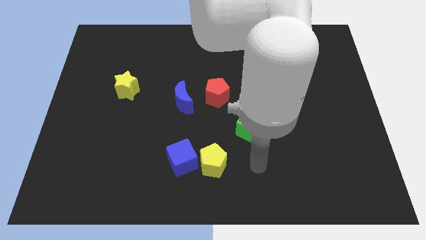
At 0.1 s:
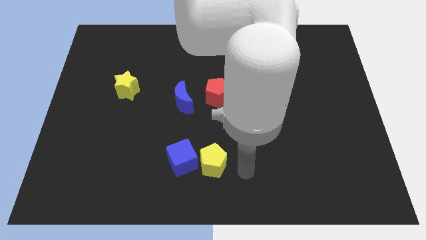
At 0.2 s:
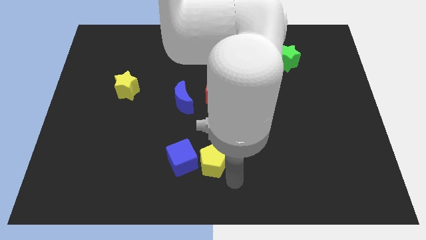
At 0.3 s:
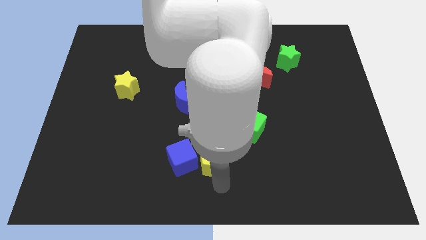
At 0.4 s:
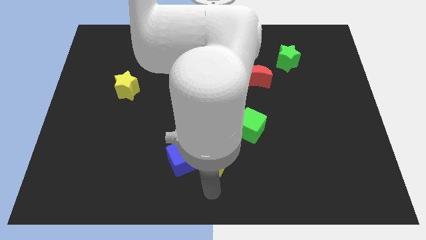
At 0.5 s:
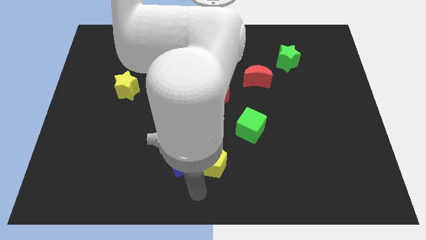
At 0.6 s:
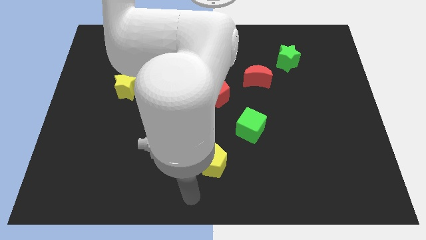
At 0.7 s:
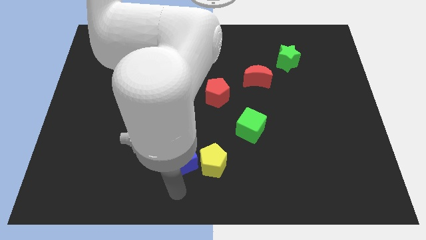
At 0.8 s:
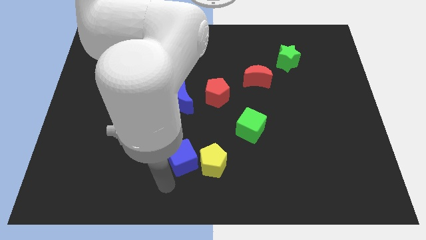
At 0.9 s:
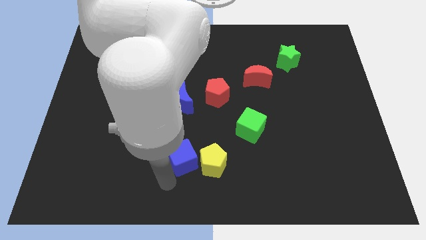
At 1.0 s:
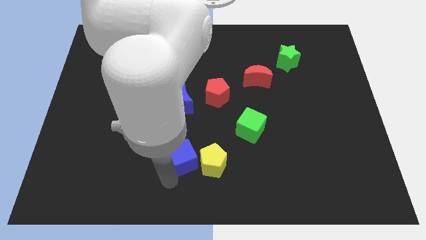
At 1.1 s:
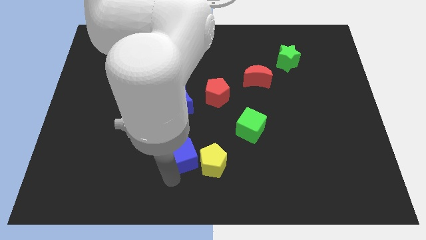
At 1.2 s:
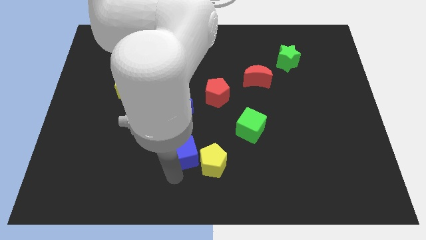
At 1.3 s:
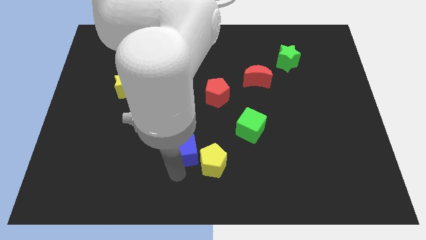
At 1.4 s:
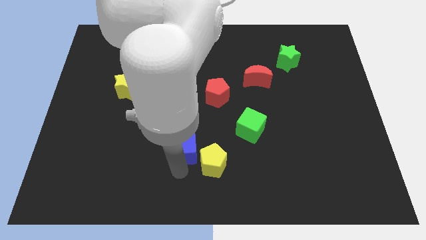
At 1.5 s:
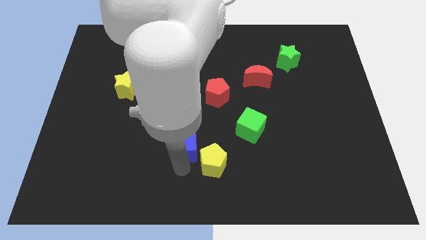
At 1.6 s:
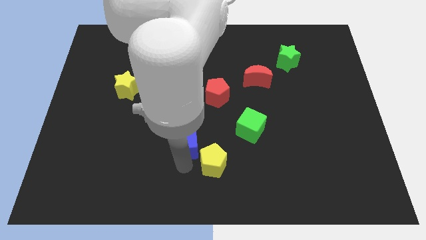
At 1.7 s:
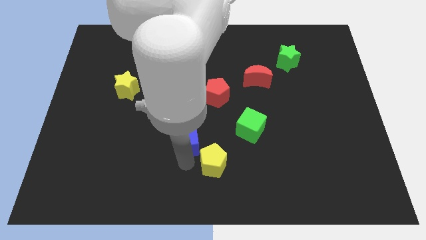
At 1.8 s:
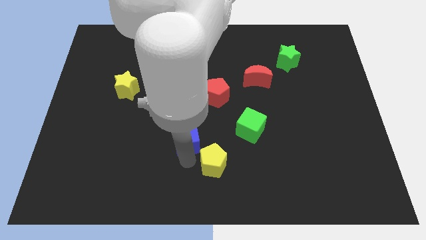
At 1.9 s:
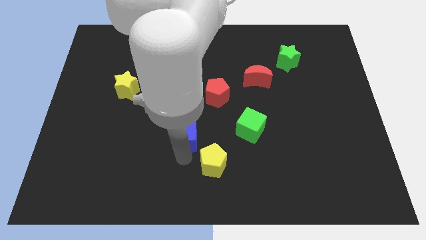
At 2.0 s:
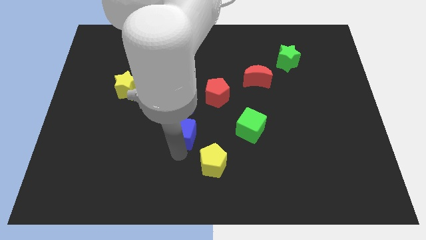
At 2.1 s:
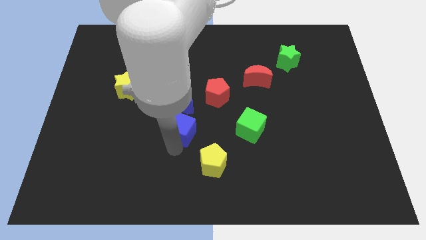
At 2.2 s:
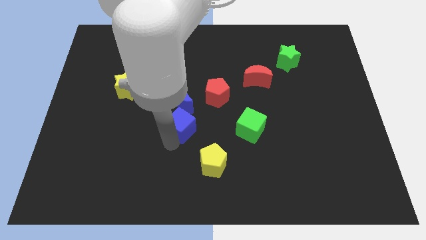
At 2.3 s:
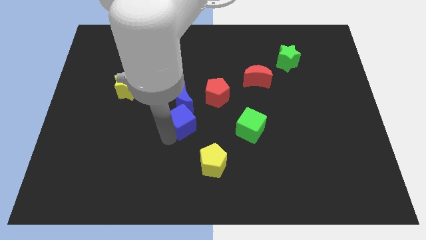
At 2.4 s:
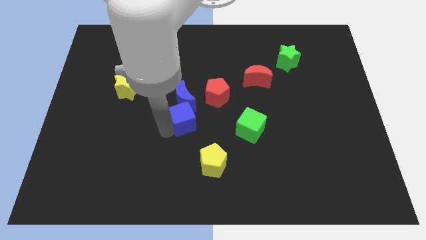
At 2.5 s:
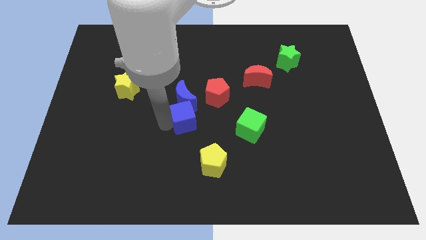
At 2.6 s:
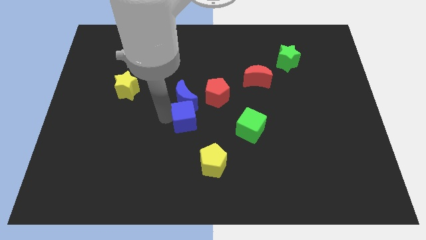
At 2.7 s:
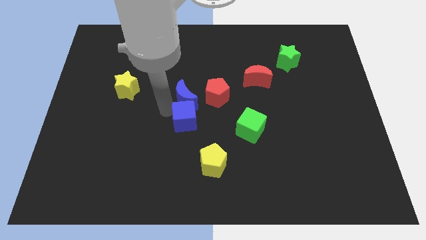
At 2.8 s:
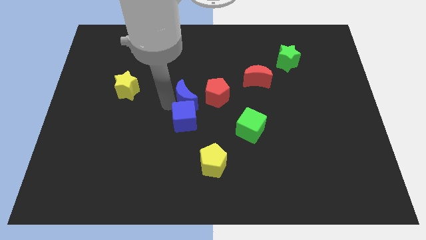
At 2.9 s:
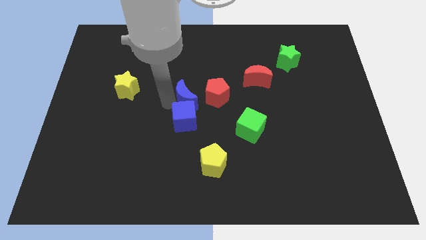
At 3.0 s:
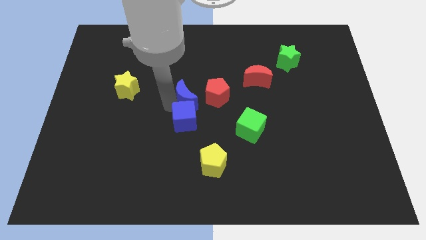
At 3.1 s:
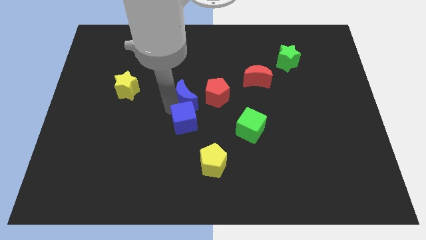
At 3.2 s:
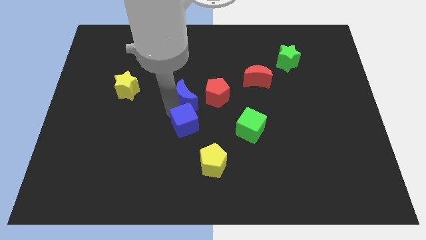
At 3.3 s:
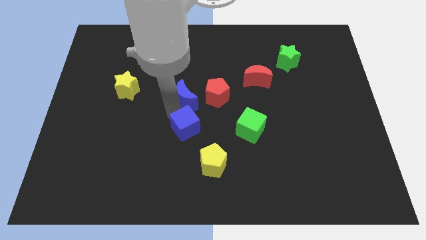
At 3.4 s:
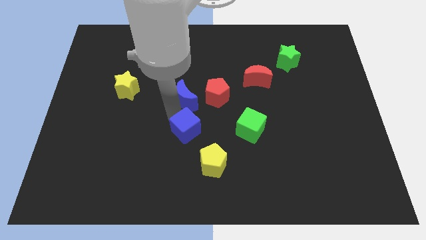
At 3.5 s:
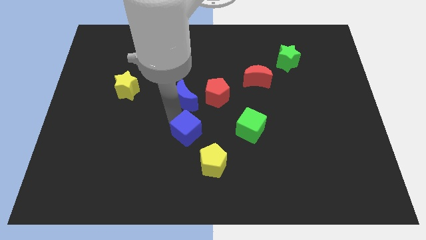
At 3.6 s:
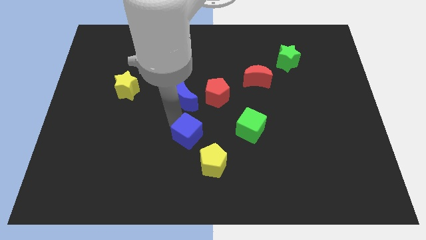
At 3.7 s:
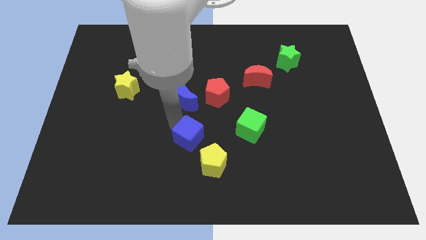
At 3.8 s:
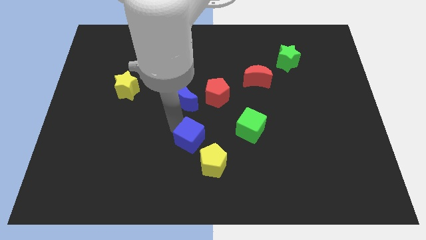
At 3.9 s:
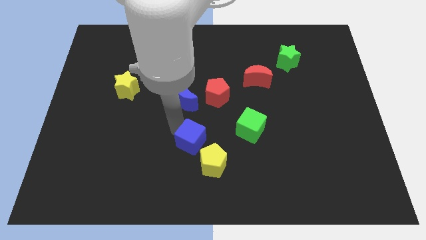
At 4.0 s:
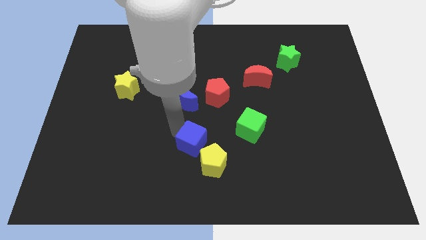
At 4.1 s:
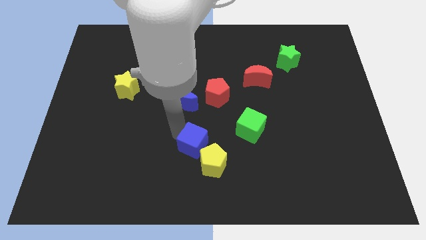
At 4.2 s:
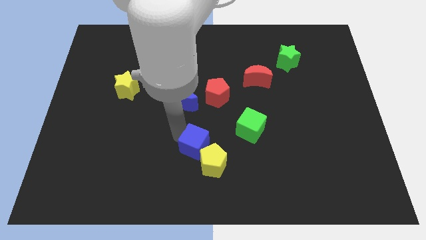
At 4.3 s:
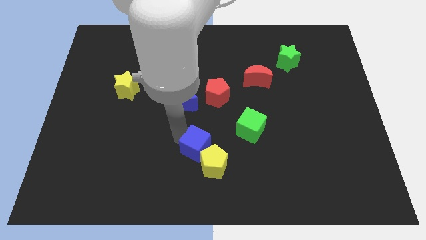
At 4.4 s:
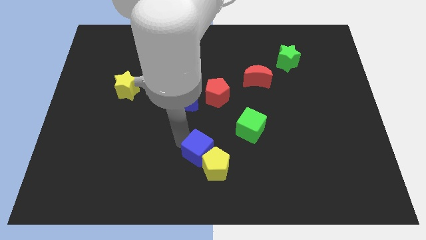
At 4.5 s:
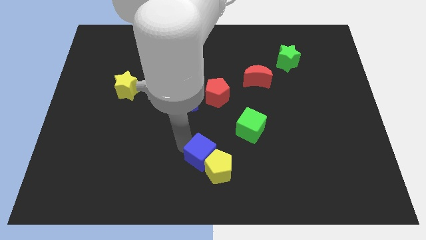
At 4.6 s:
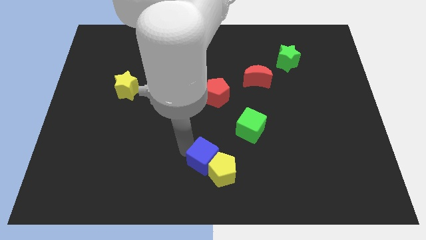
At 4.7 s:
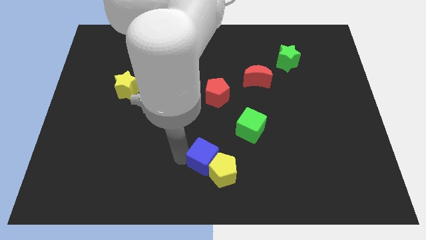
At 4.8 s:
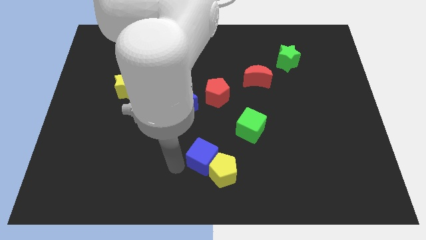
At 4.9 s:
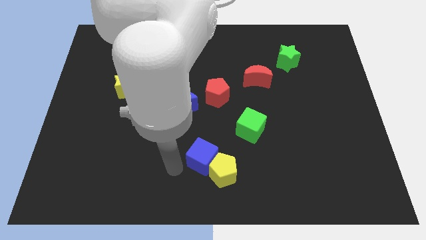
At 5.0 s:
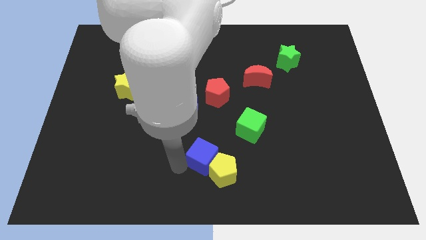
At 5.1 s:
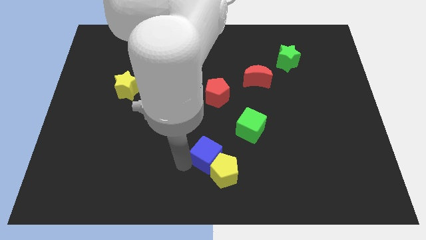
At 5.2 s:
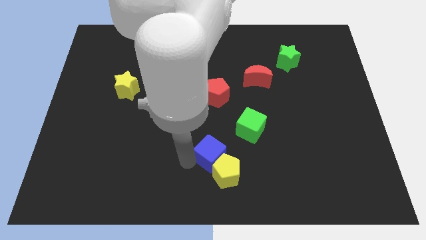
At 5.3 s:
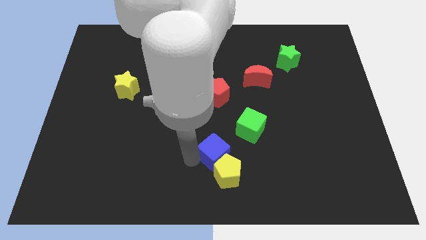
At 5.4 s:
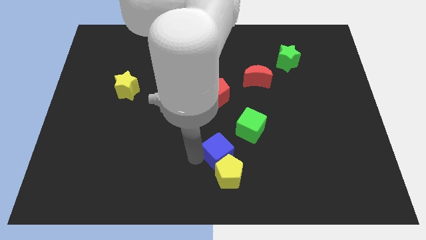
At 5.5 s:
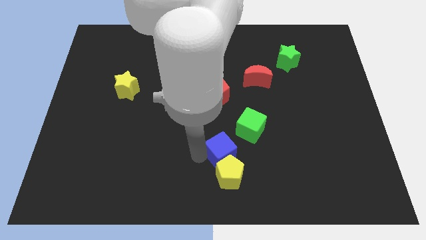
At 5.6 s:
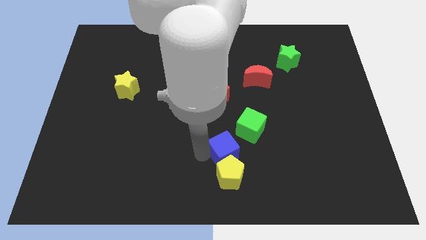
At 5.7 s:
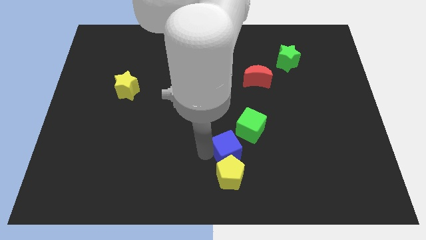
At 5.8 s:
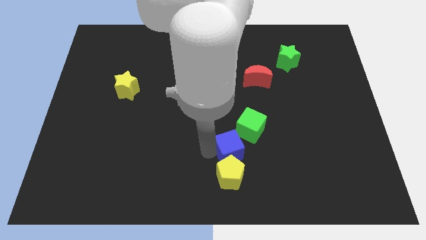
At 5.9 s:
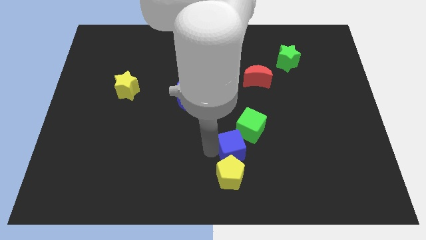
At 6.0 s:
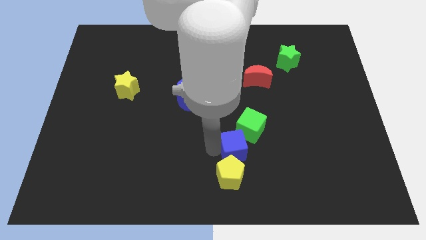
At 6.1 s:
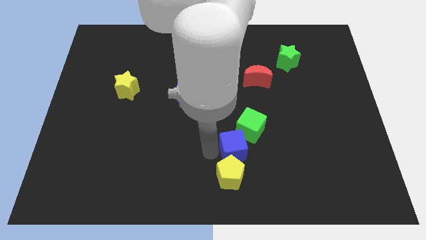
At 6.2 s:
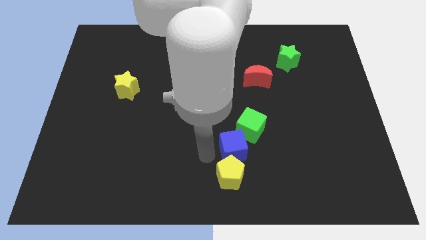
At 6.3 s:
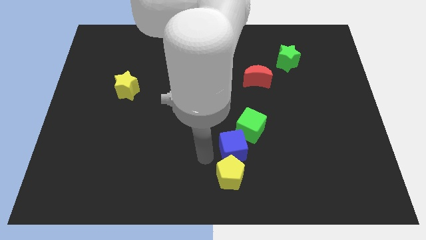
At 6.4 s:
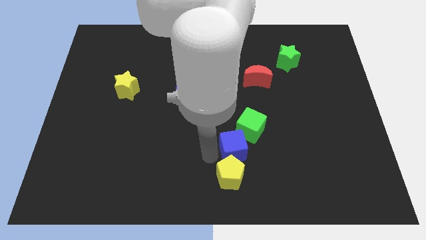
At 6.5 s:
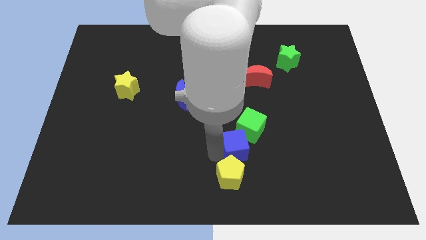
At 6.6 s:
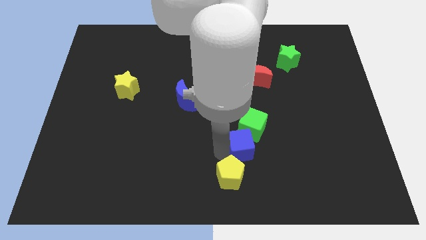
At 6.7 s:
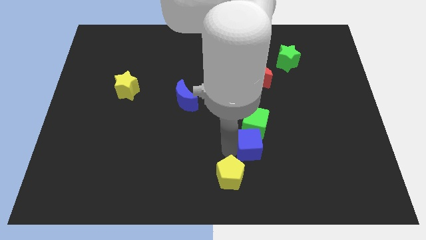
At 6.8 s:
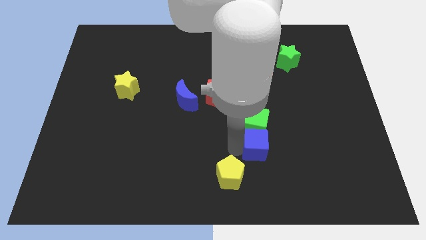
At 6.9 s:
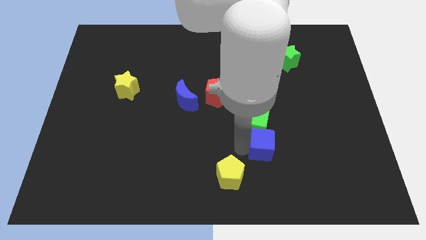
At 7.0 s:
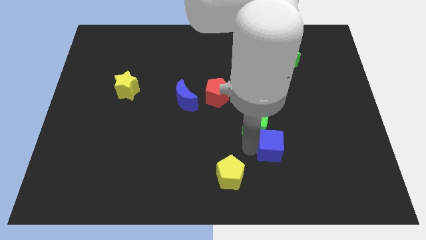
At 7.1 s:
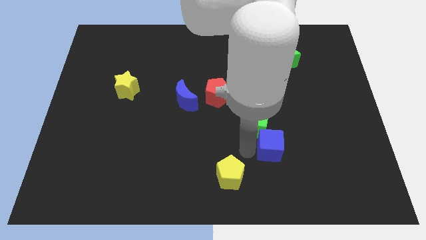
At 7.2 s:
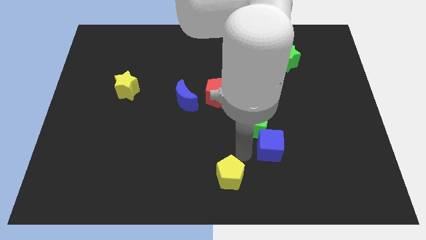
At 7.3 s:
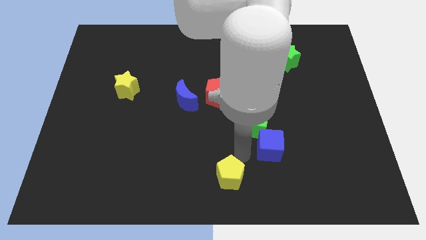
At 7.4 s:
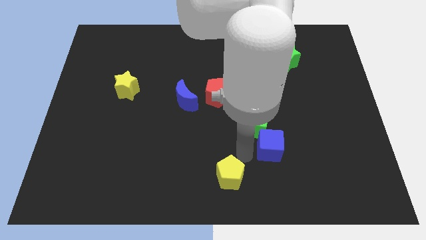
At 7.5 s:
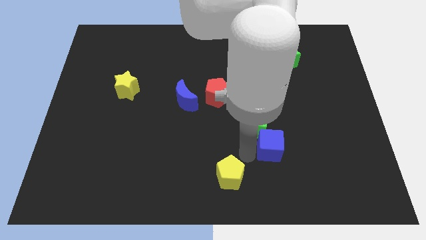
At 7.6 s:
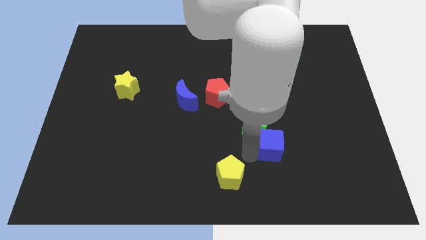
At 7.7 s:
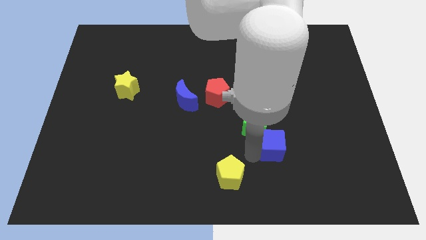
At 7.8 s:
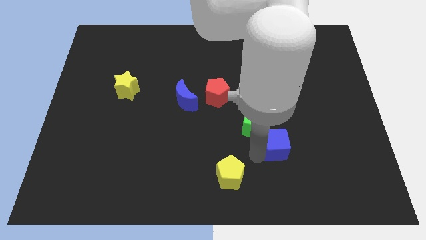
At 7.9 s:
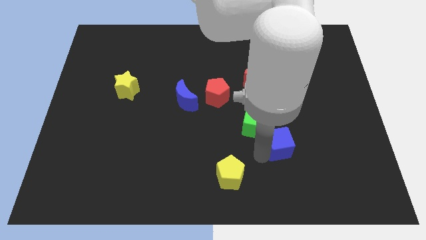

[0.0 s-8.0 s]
push the blue cube to the right
